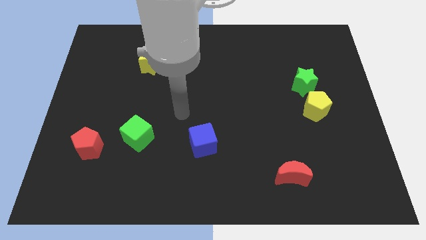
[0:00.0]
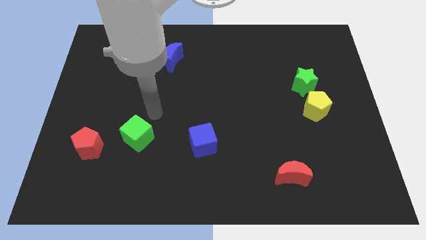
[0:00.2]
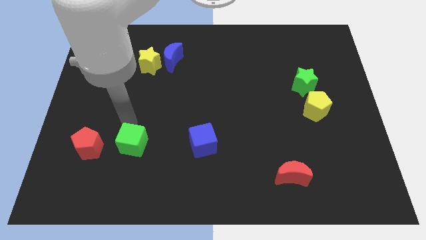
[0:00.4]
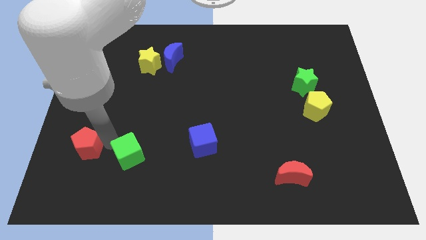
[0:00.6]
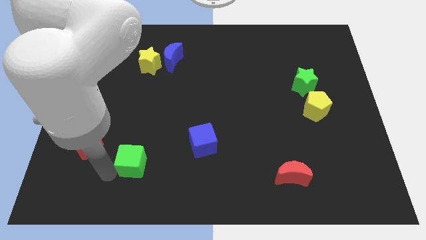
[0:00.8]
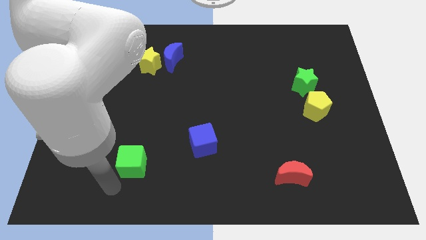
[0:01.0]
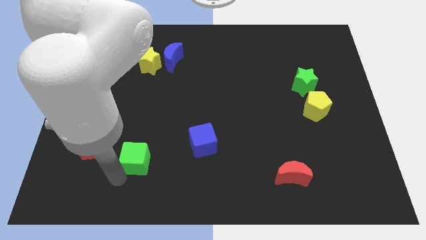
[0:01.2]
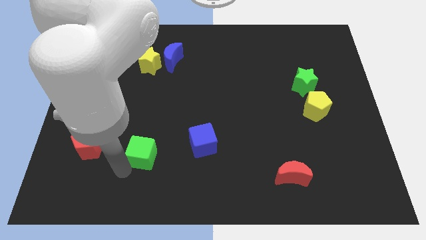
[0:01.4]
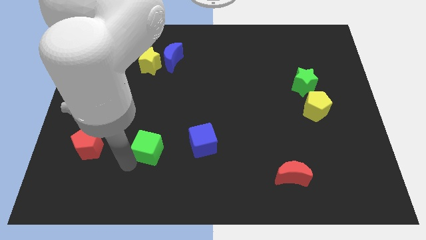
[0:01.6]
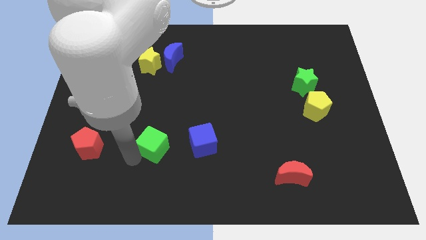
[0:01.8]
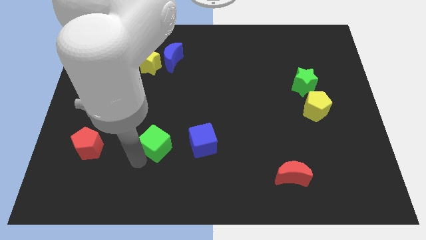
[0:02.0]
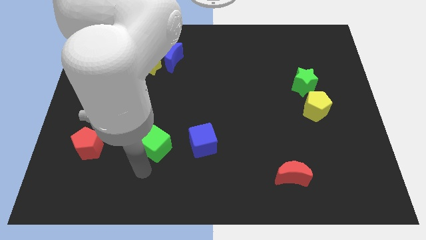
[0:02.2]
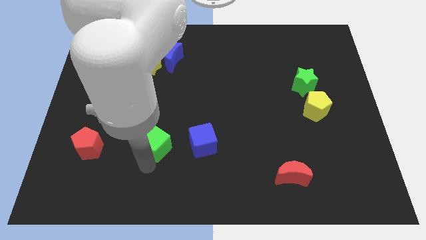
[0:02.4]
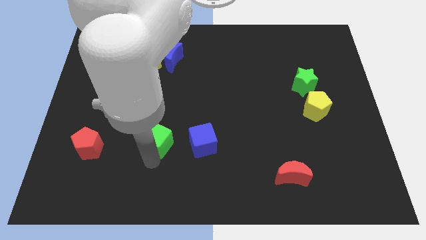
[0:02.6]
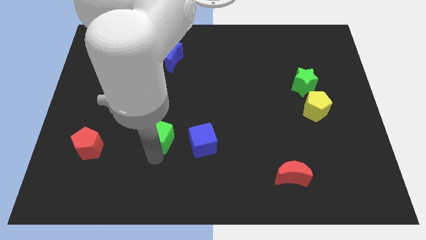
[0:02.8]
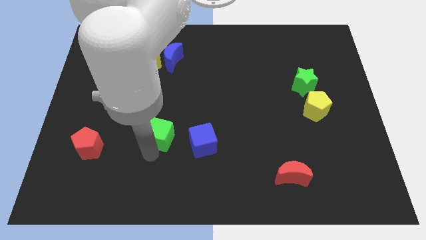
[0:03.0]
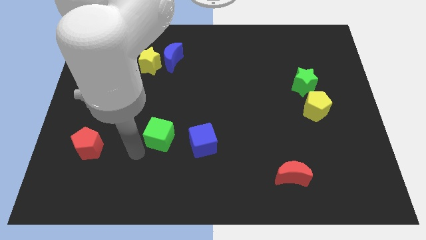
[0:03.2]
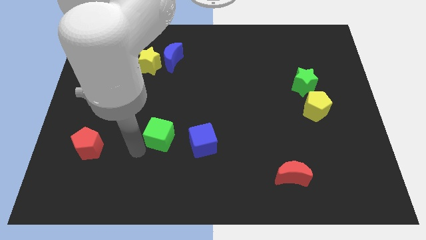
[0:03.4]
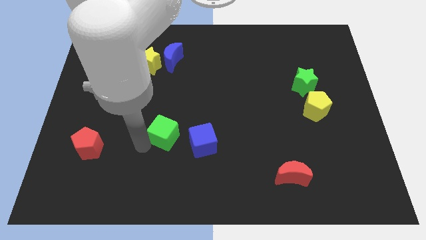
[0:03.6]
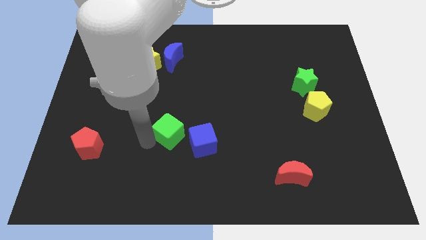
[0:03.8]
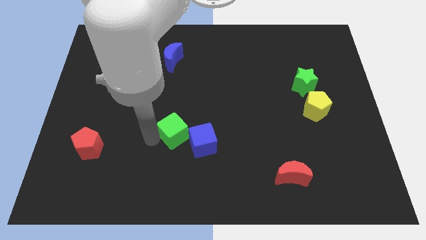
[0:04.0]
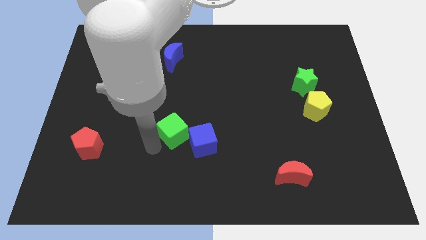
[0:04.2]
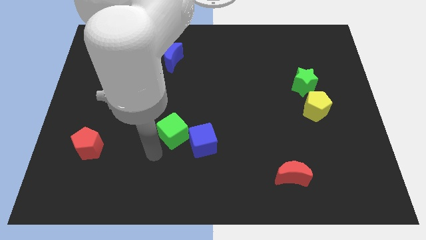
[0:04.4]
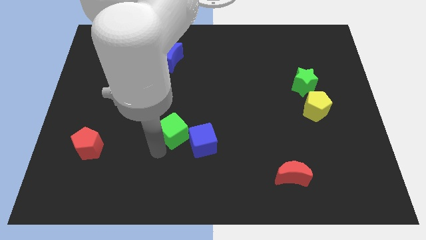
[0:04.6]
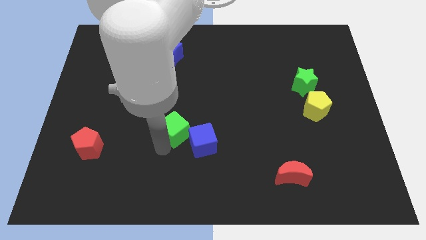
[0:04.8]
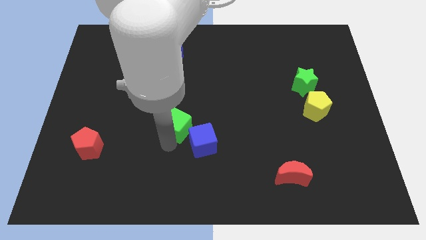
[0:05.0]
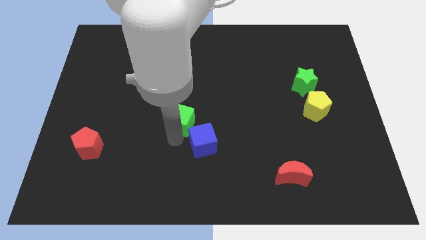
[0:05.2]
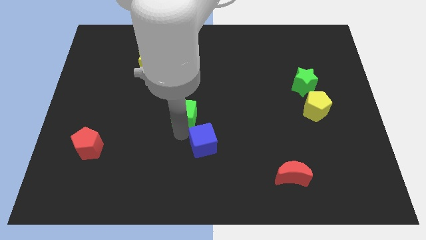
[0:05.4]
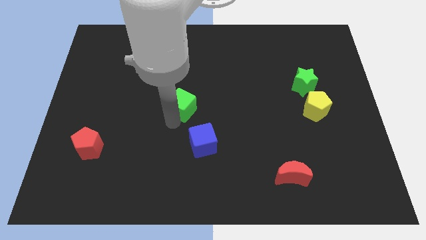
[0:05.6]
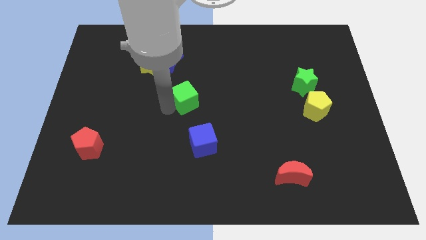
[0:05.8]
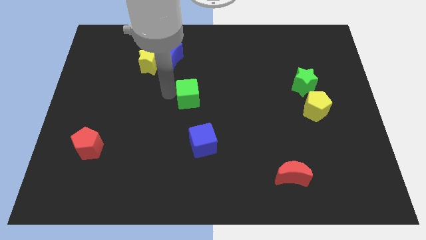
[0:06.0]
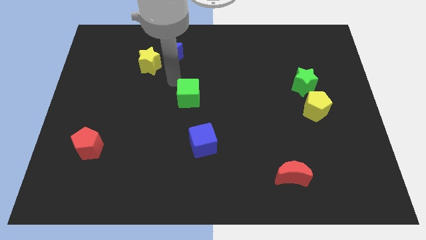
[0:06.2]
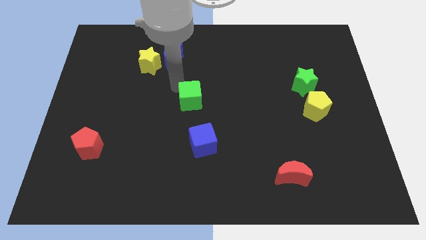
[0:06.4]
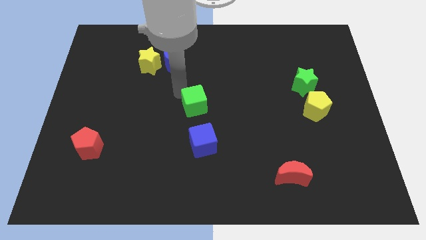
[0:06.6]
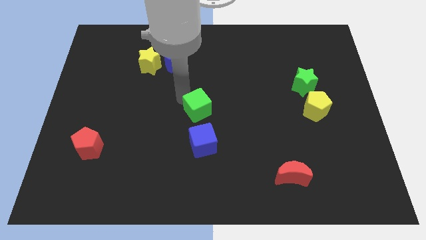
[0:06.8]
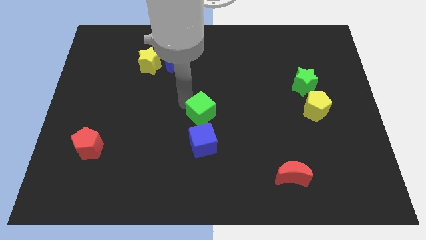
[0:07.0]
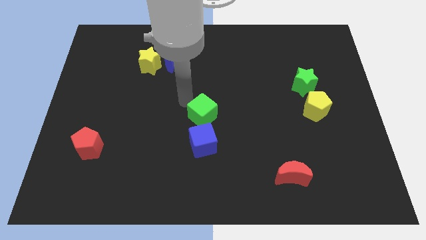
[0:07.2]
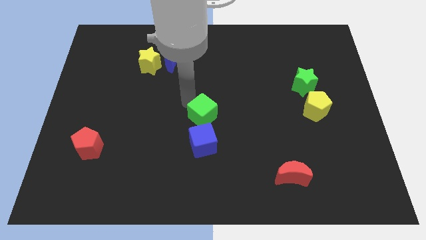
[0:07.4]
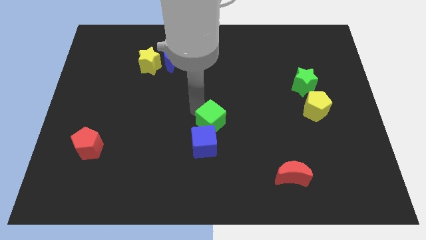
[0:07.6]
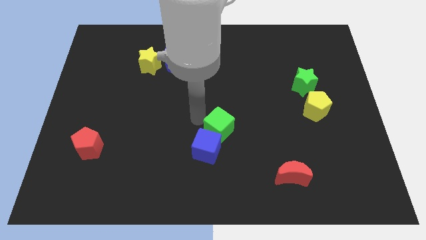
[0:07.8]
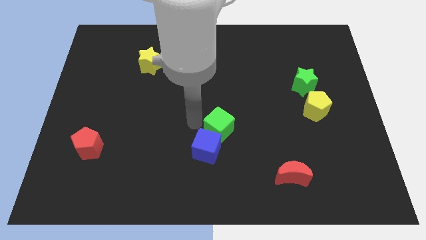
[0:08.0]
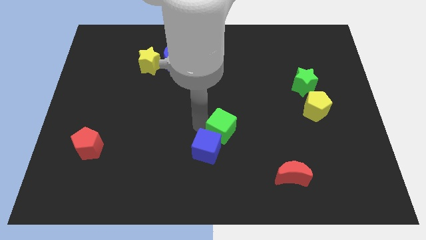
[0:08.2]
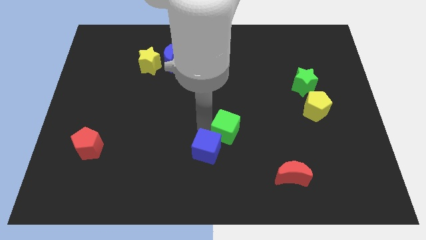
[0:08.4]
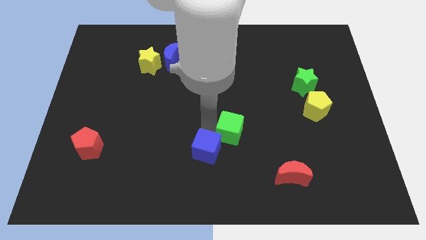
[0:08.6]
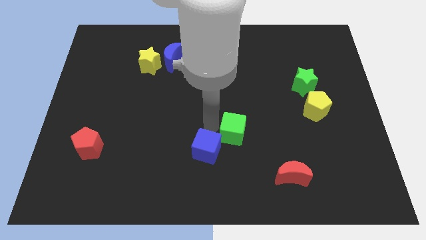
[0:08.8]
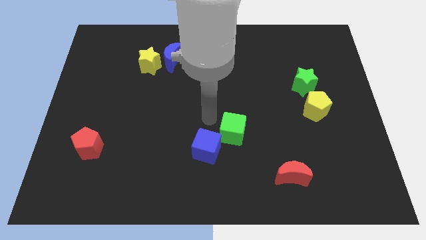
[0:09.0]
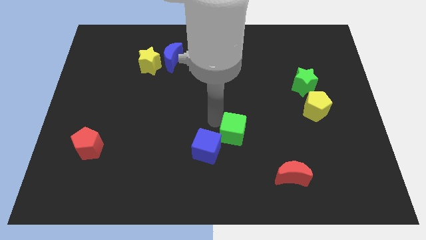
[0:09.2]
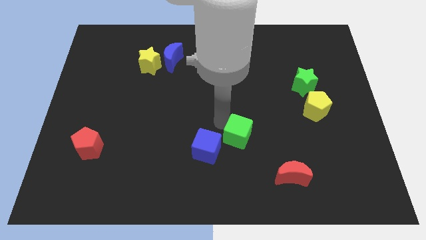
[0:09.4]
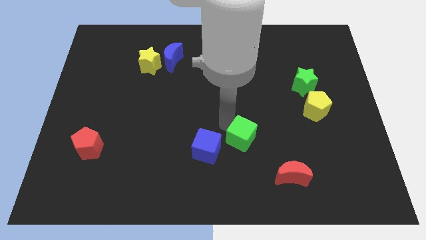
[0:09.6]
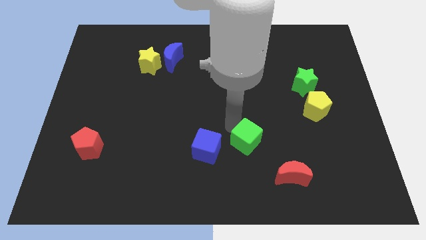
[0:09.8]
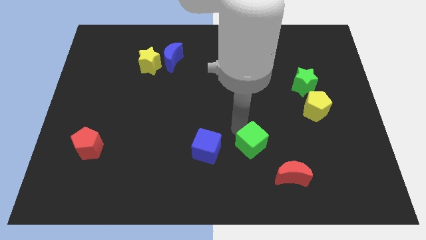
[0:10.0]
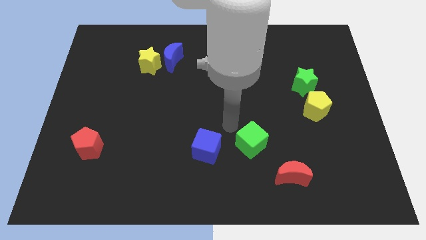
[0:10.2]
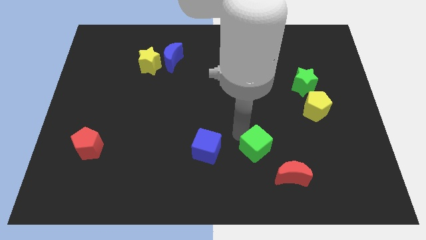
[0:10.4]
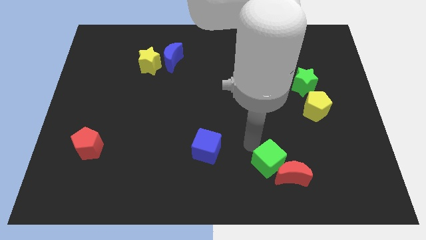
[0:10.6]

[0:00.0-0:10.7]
move the green cube to the red moon

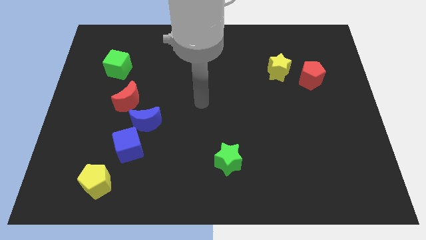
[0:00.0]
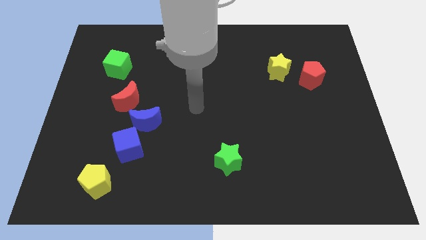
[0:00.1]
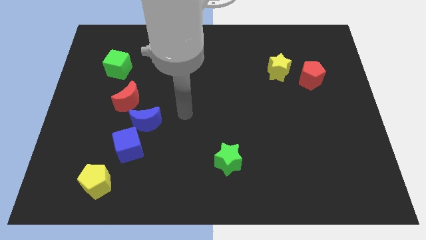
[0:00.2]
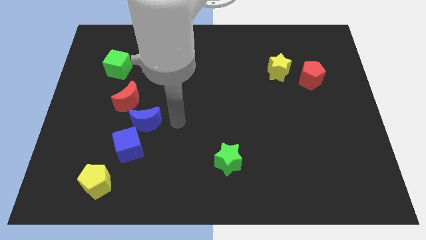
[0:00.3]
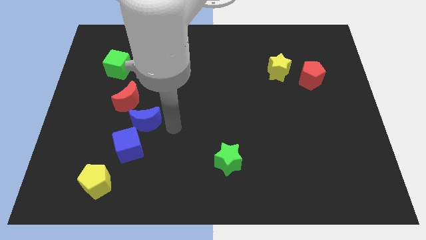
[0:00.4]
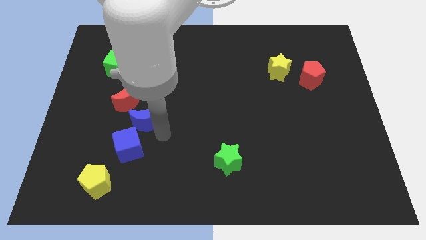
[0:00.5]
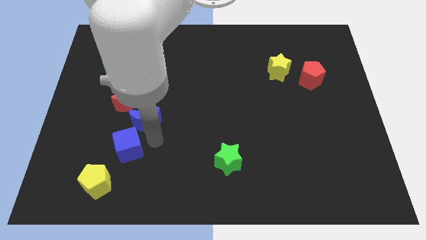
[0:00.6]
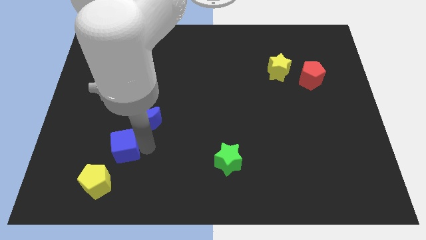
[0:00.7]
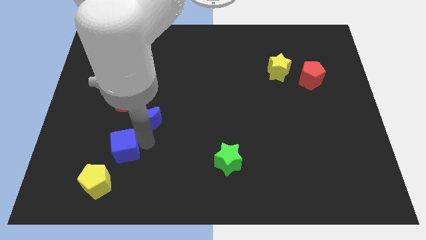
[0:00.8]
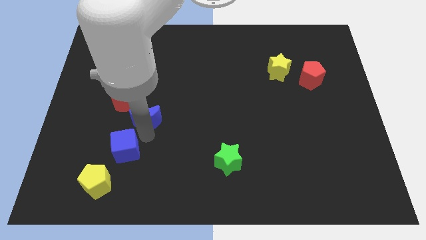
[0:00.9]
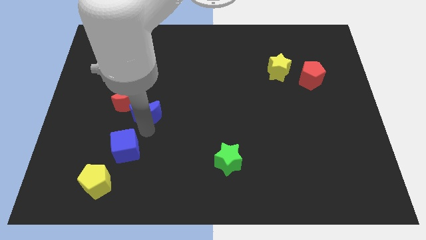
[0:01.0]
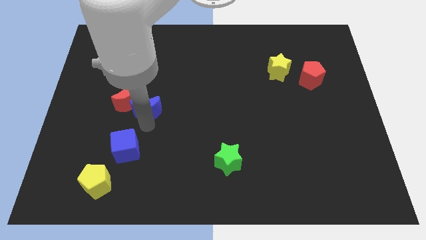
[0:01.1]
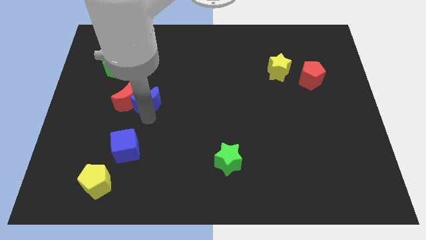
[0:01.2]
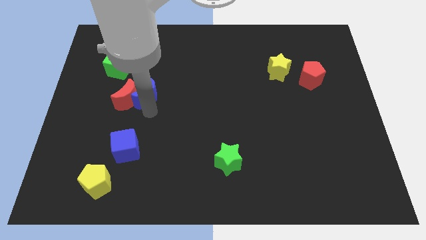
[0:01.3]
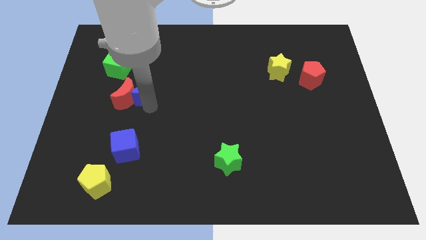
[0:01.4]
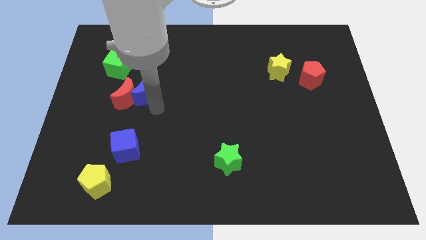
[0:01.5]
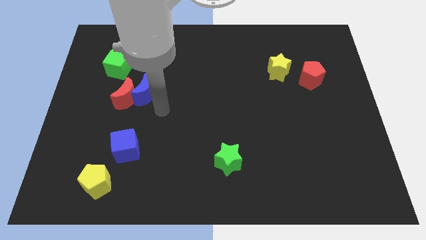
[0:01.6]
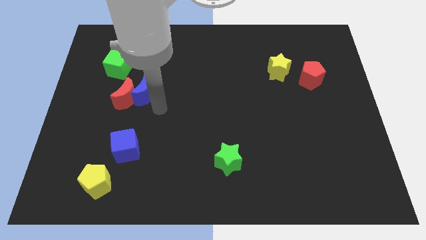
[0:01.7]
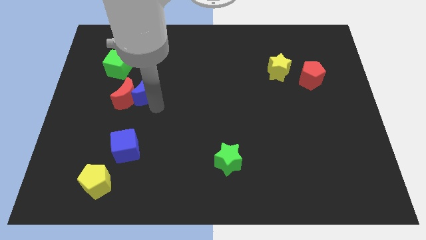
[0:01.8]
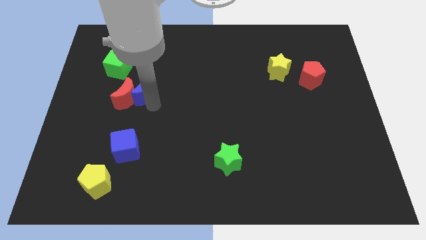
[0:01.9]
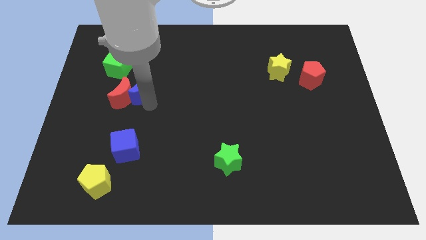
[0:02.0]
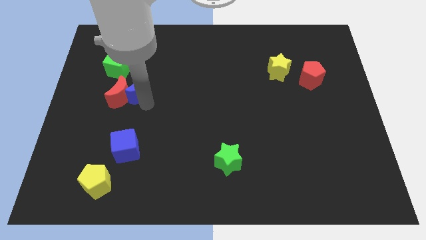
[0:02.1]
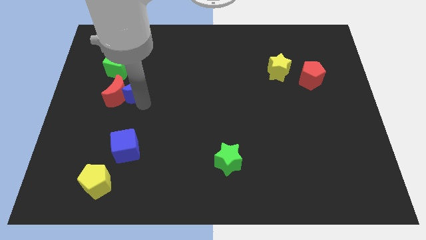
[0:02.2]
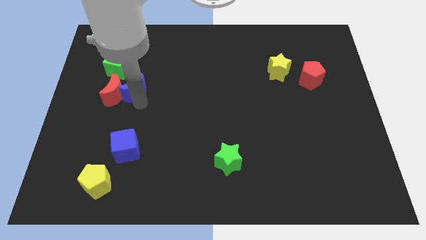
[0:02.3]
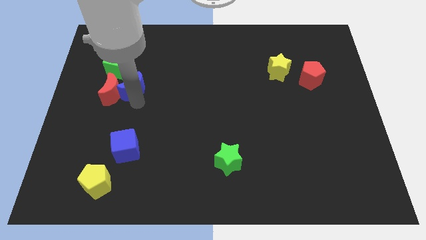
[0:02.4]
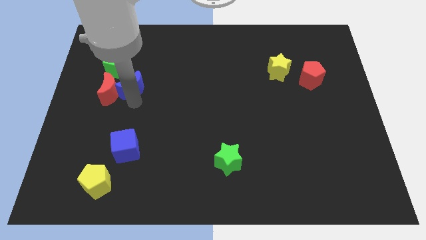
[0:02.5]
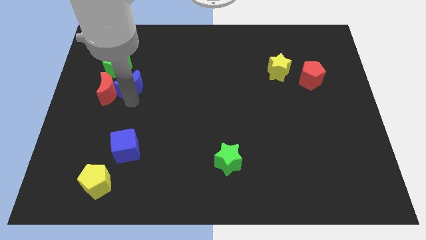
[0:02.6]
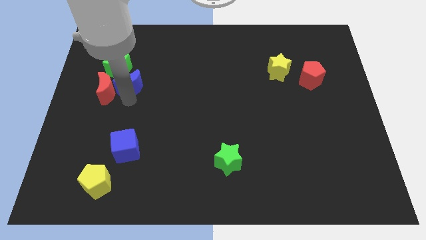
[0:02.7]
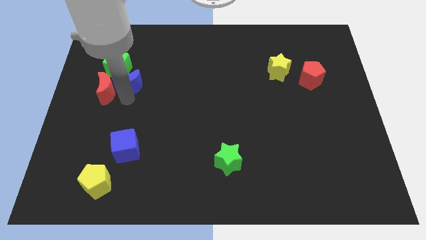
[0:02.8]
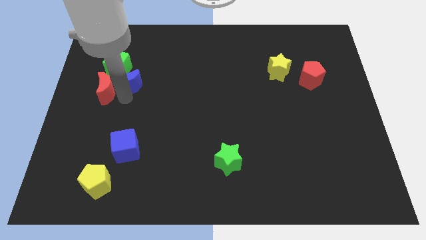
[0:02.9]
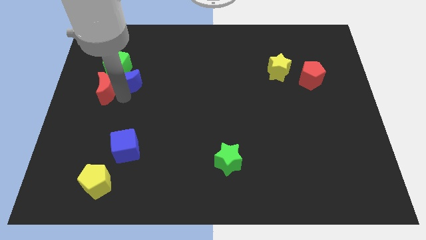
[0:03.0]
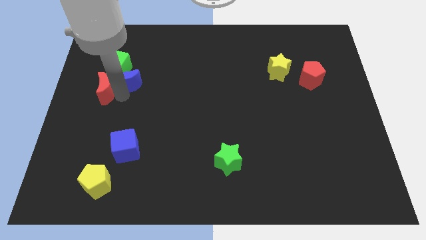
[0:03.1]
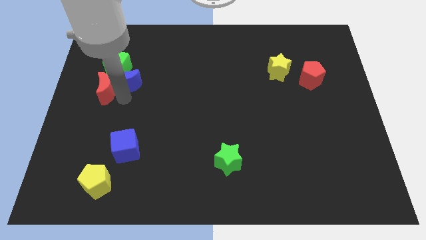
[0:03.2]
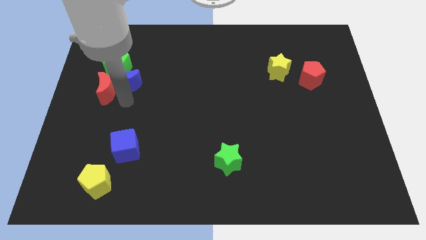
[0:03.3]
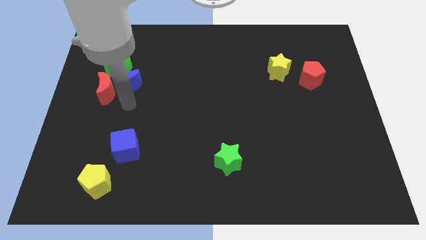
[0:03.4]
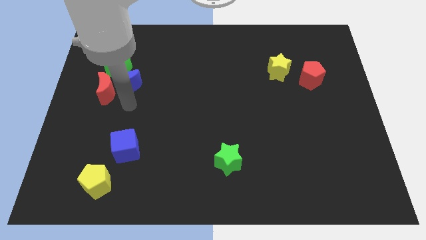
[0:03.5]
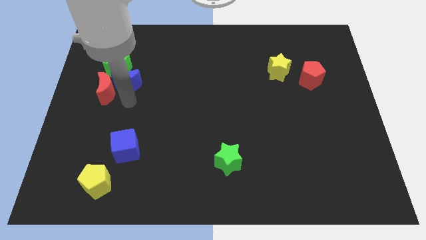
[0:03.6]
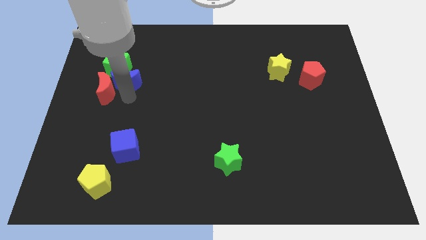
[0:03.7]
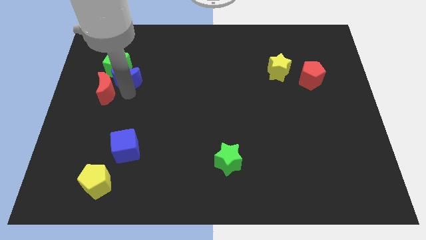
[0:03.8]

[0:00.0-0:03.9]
slide the blue moon close to the green cube
